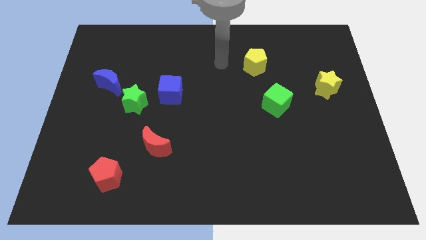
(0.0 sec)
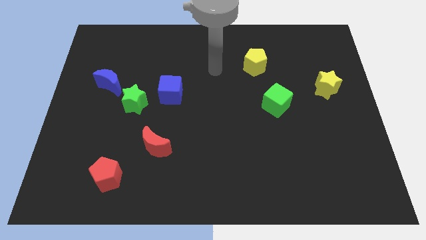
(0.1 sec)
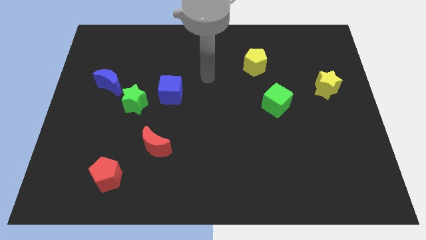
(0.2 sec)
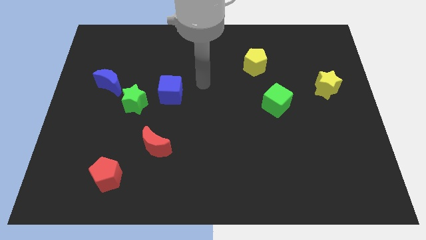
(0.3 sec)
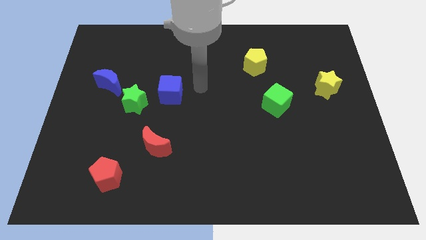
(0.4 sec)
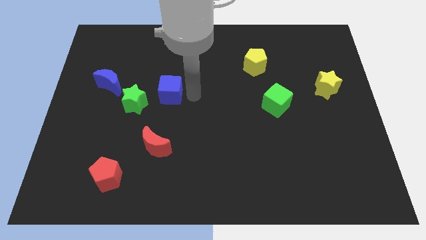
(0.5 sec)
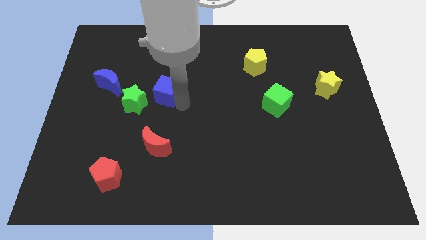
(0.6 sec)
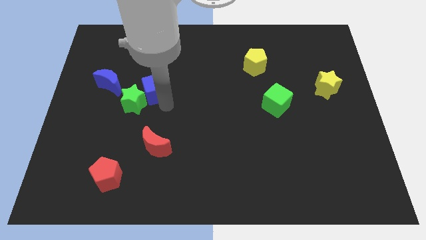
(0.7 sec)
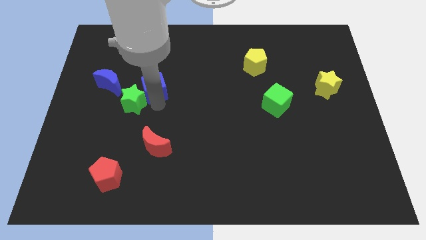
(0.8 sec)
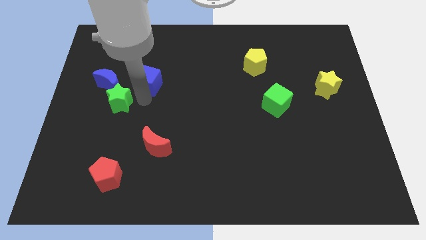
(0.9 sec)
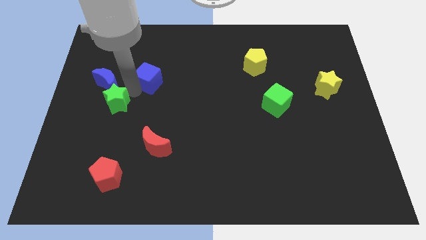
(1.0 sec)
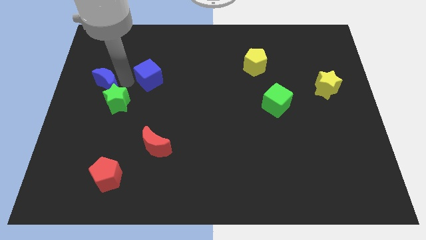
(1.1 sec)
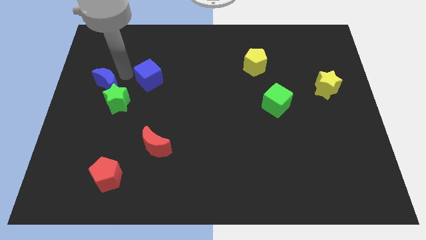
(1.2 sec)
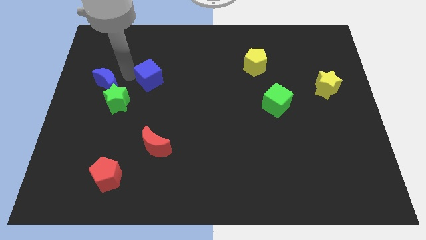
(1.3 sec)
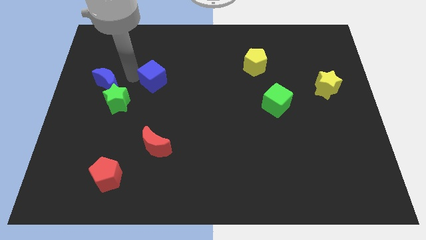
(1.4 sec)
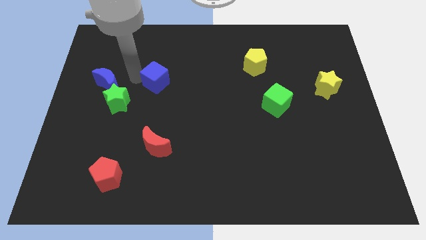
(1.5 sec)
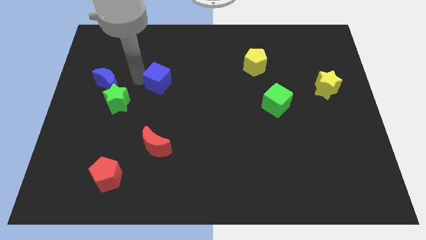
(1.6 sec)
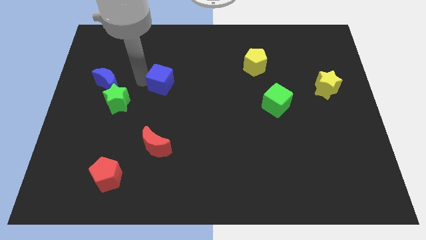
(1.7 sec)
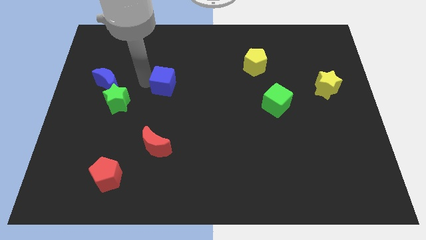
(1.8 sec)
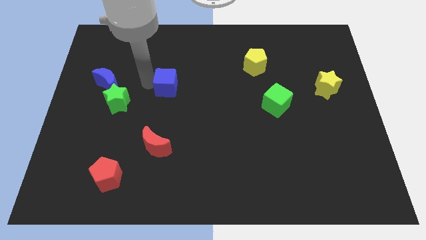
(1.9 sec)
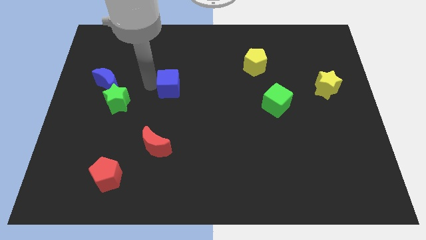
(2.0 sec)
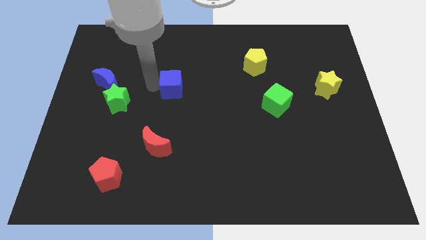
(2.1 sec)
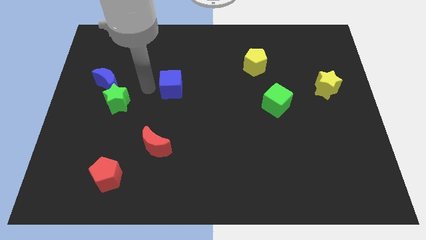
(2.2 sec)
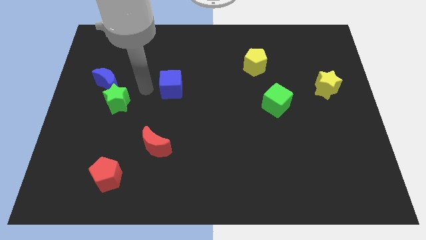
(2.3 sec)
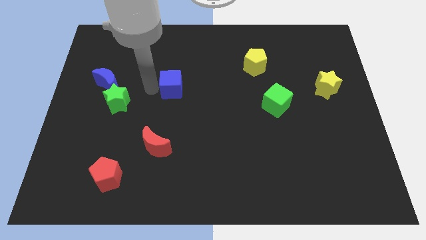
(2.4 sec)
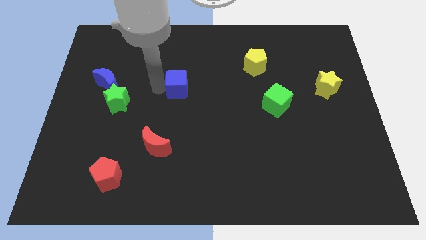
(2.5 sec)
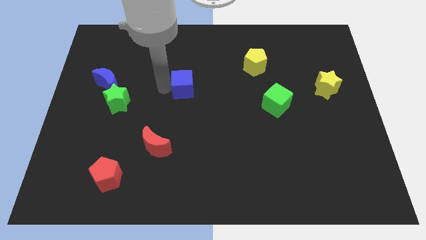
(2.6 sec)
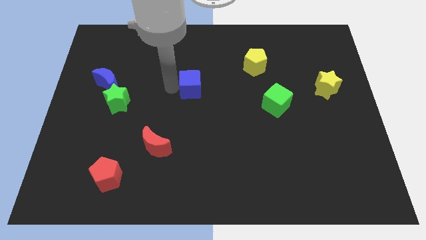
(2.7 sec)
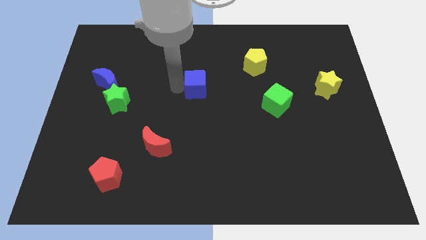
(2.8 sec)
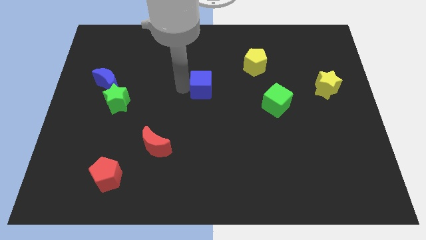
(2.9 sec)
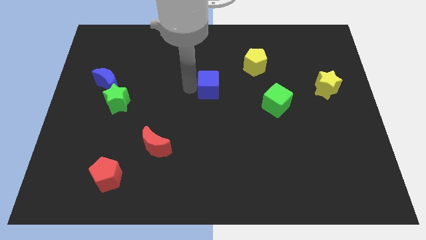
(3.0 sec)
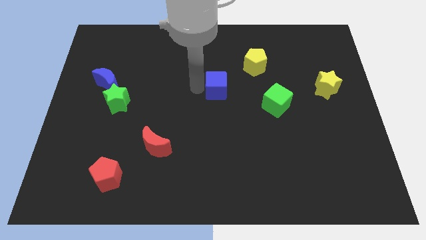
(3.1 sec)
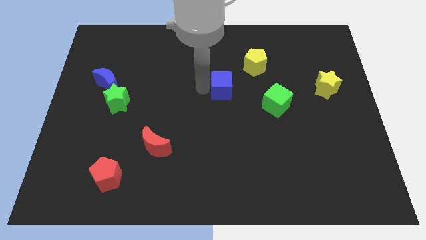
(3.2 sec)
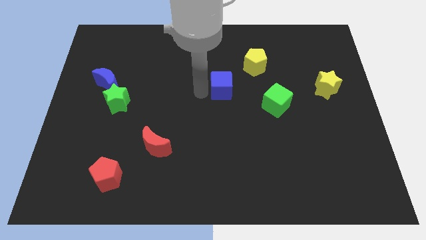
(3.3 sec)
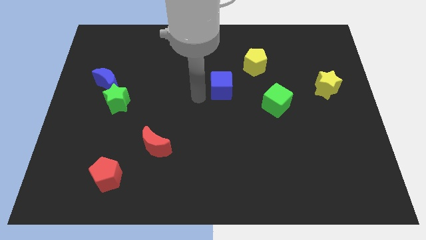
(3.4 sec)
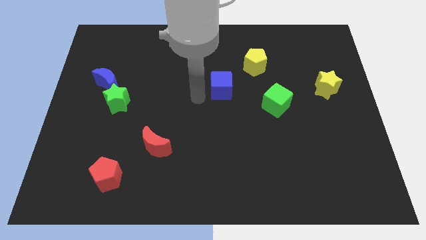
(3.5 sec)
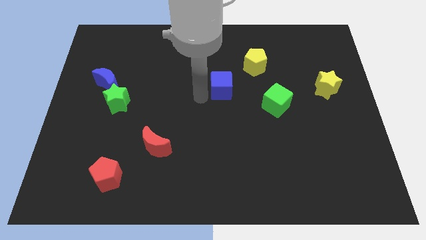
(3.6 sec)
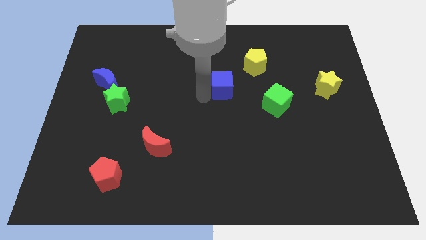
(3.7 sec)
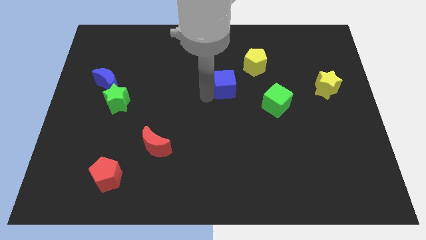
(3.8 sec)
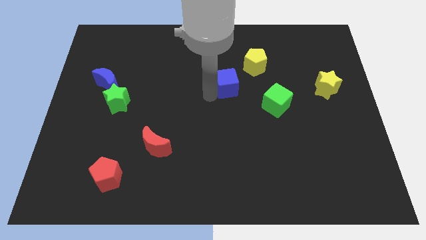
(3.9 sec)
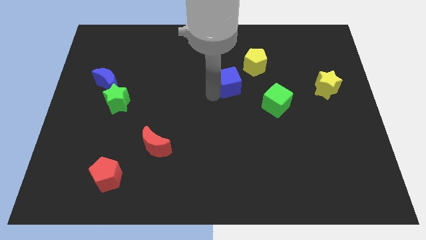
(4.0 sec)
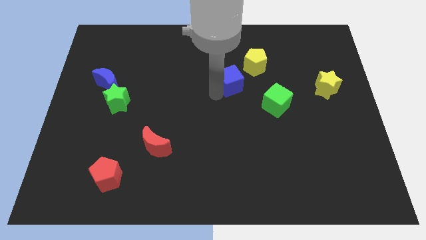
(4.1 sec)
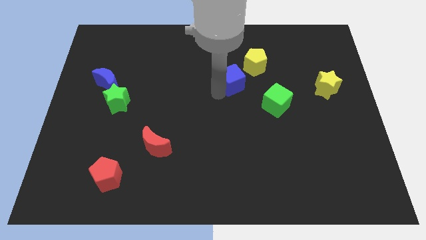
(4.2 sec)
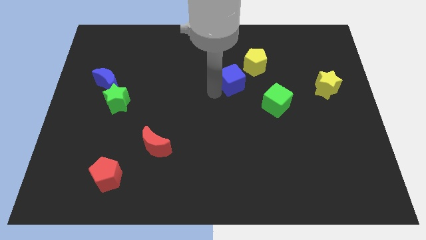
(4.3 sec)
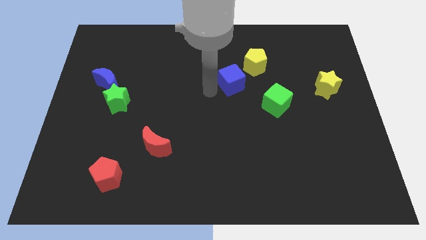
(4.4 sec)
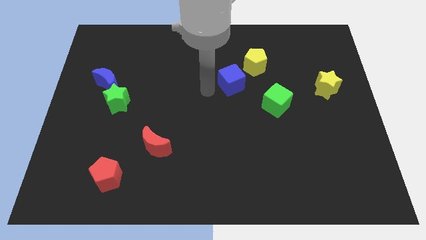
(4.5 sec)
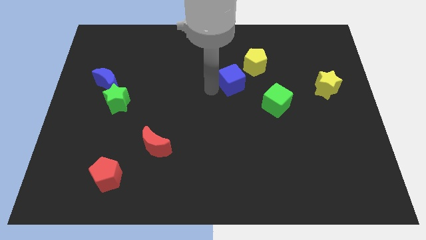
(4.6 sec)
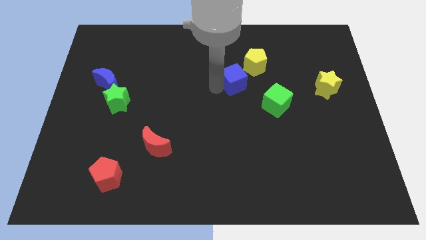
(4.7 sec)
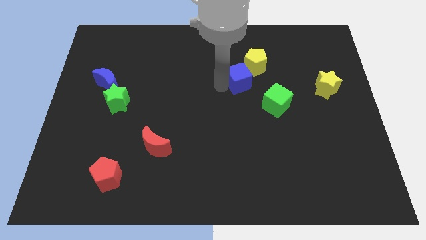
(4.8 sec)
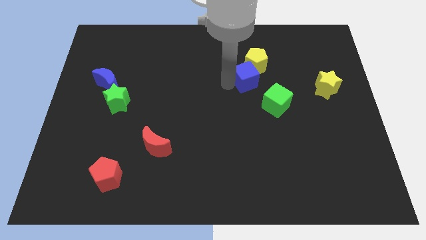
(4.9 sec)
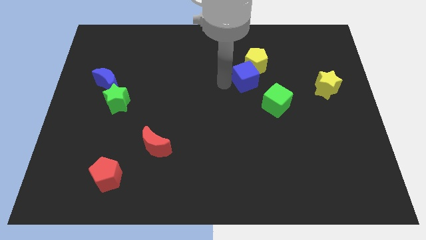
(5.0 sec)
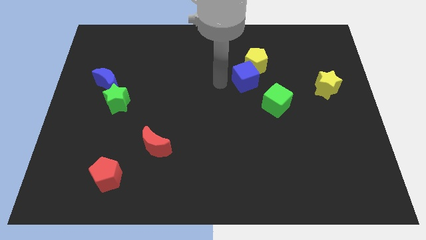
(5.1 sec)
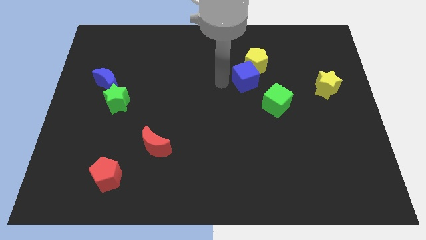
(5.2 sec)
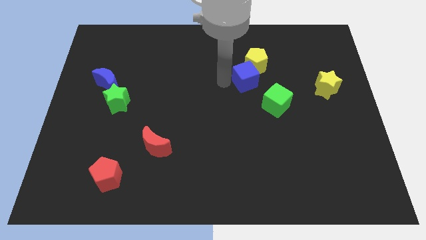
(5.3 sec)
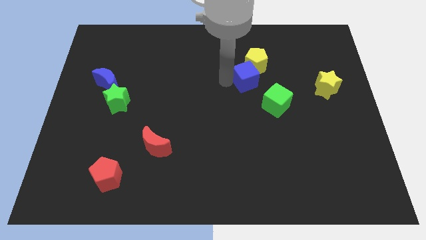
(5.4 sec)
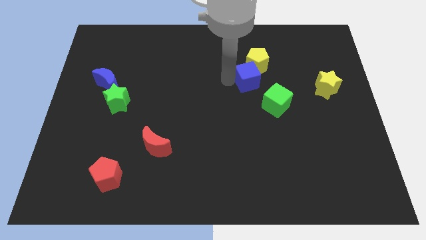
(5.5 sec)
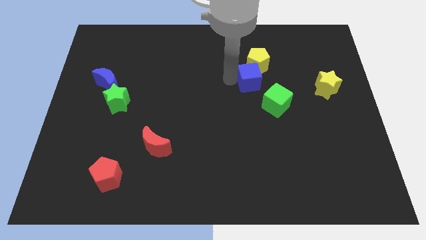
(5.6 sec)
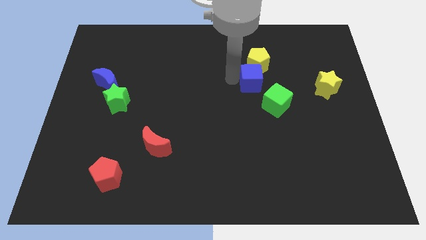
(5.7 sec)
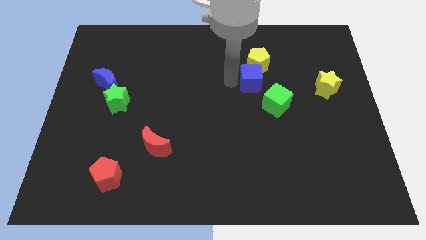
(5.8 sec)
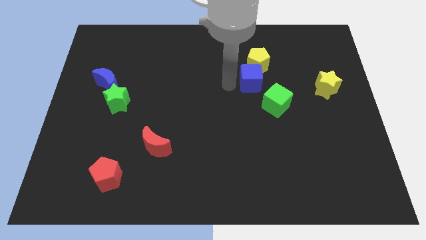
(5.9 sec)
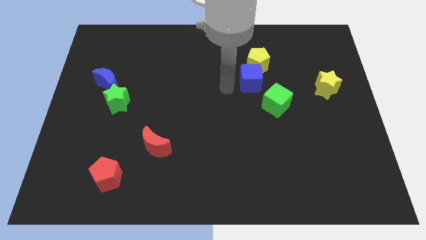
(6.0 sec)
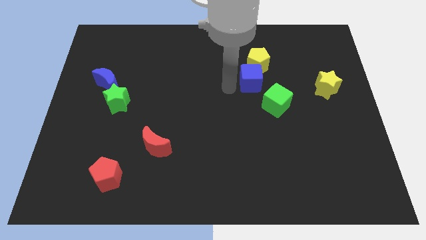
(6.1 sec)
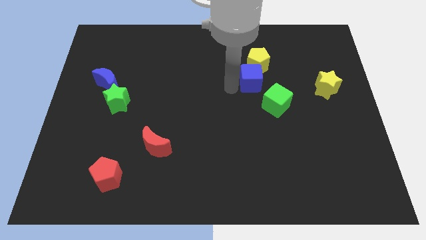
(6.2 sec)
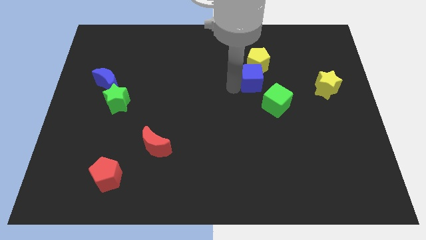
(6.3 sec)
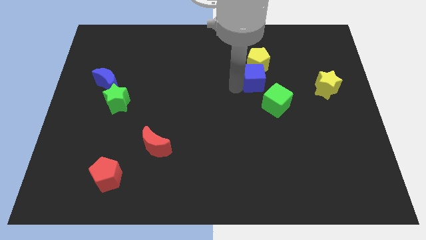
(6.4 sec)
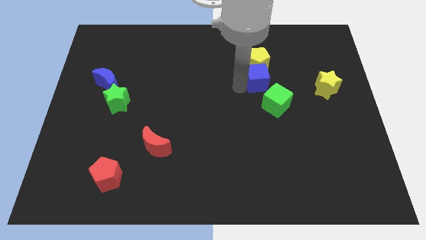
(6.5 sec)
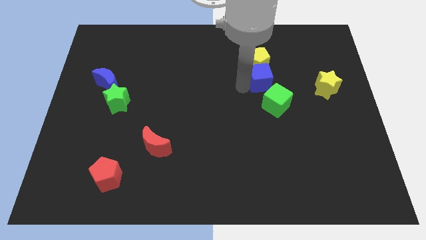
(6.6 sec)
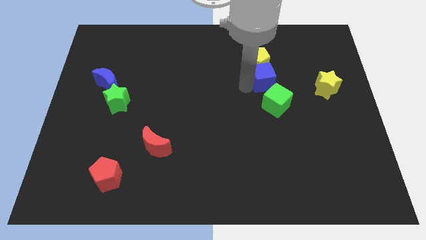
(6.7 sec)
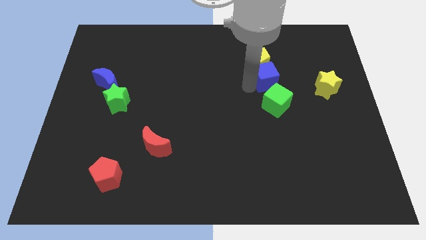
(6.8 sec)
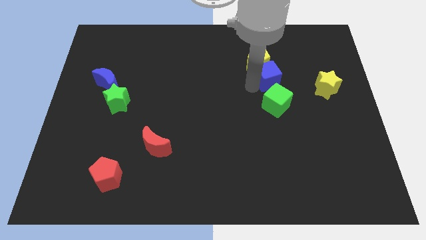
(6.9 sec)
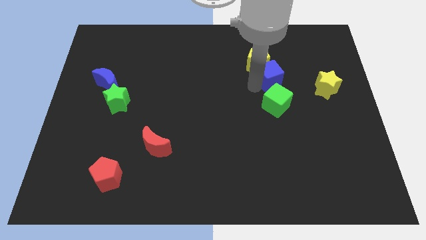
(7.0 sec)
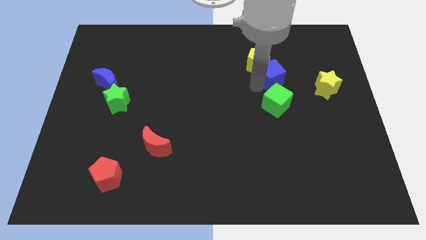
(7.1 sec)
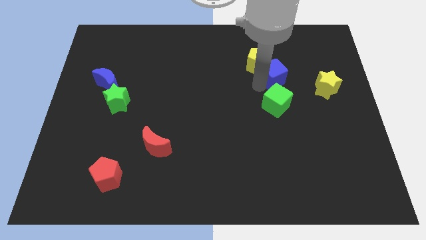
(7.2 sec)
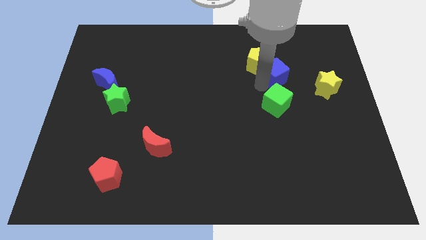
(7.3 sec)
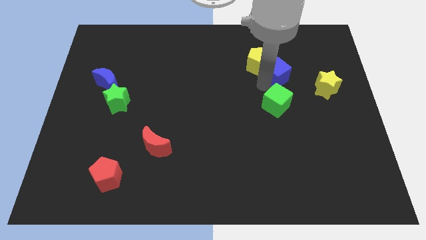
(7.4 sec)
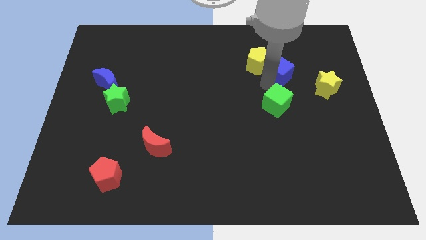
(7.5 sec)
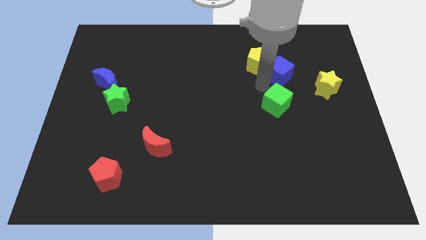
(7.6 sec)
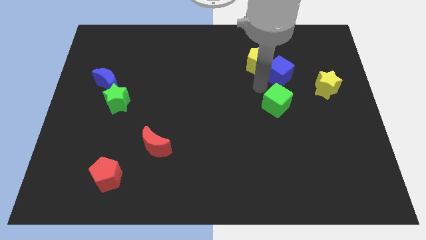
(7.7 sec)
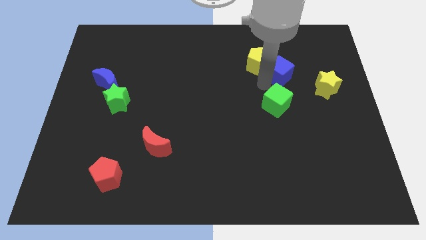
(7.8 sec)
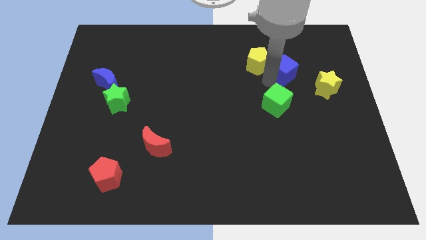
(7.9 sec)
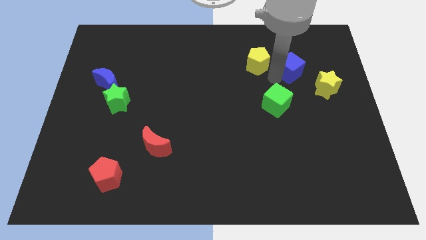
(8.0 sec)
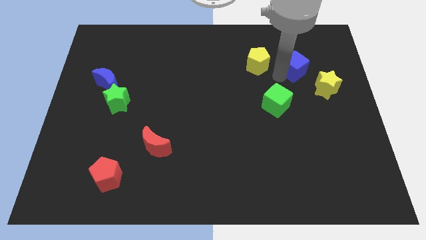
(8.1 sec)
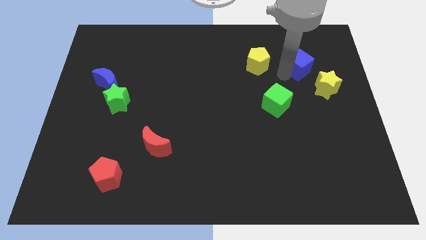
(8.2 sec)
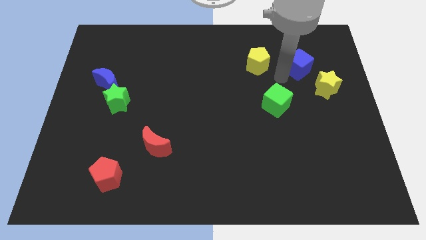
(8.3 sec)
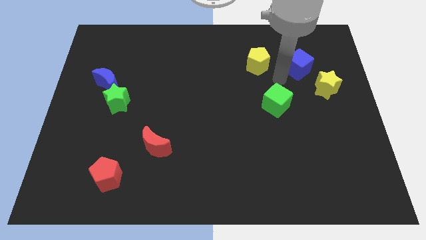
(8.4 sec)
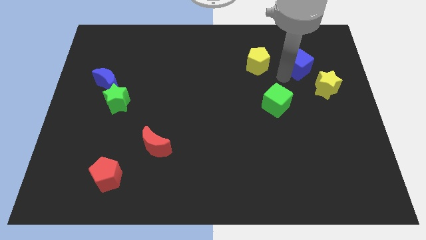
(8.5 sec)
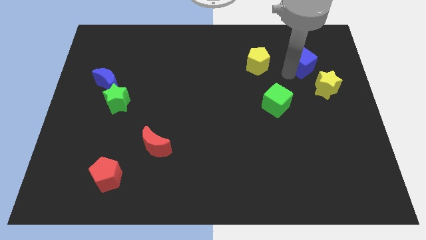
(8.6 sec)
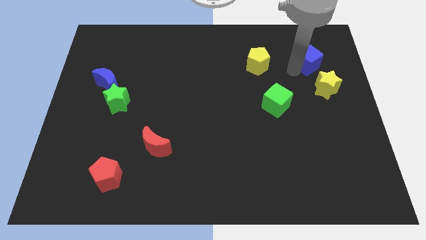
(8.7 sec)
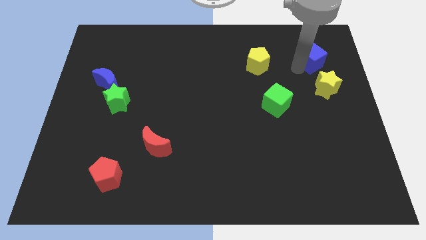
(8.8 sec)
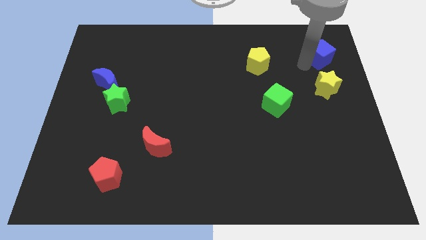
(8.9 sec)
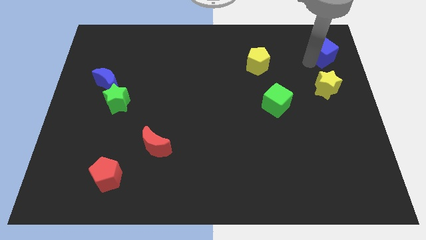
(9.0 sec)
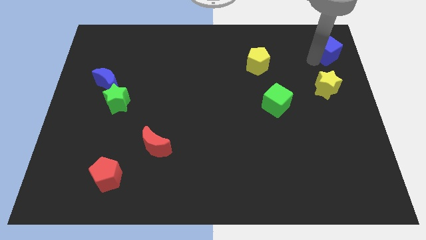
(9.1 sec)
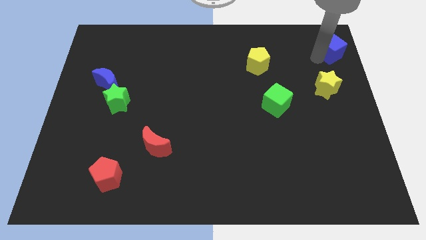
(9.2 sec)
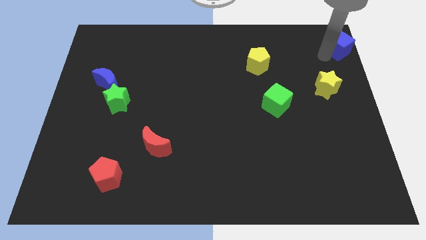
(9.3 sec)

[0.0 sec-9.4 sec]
slide the blue cube to the top right
